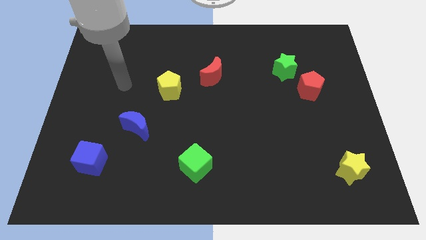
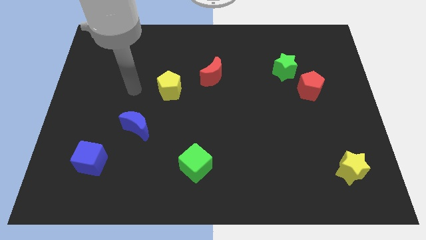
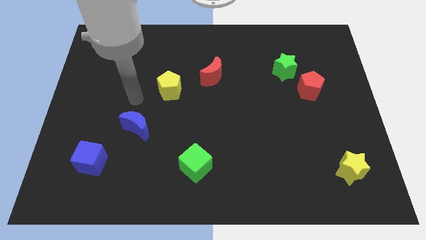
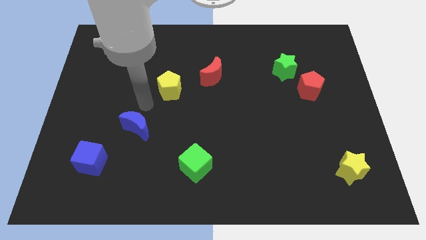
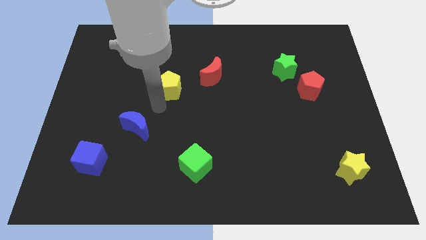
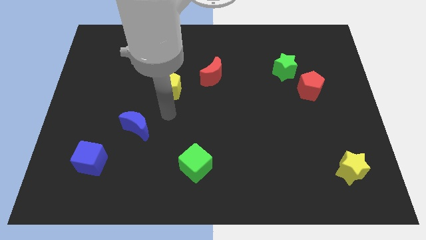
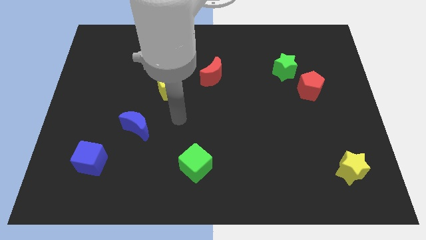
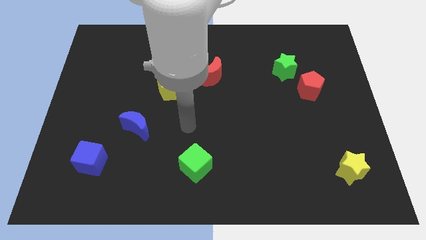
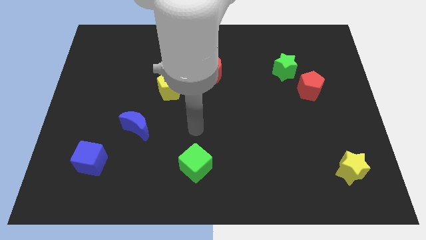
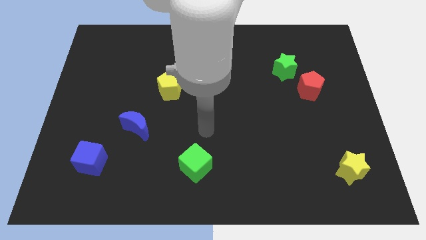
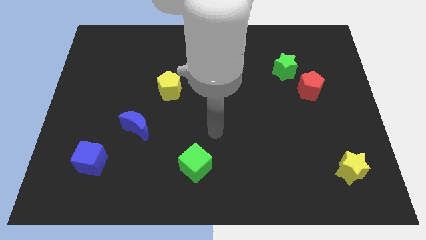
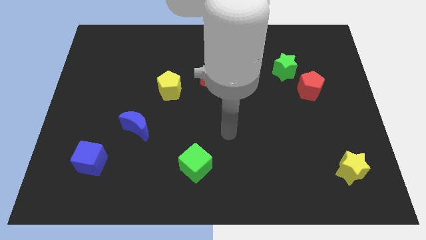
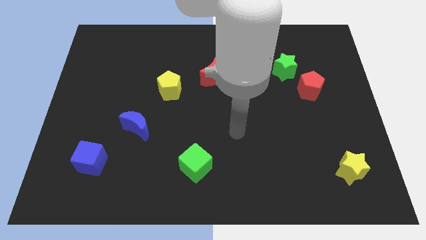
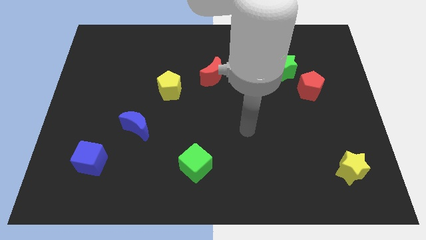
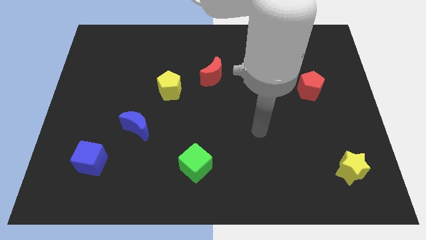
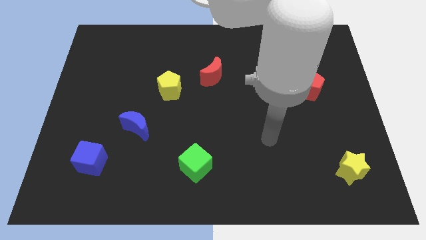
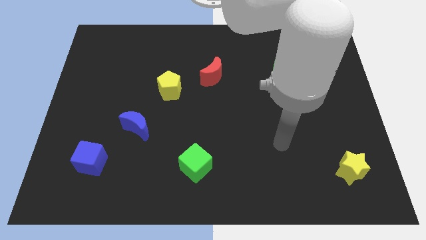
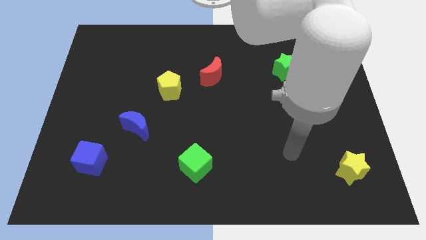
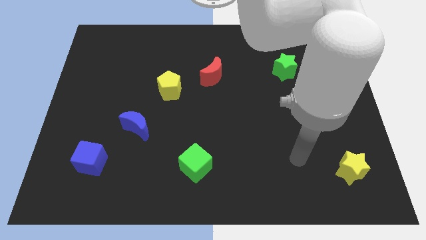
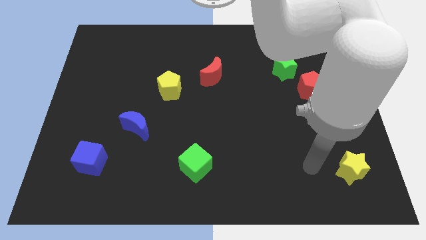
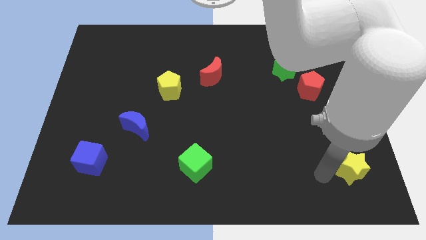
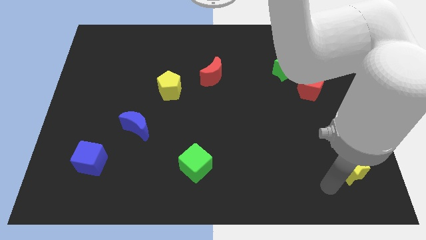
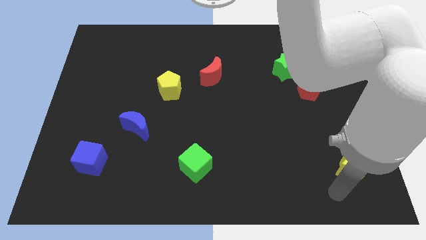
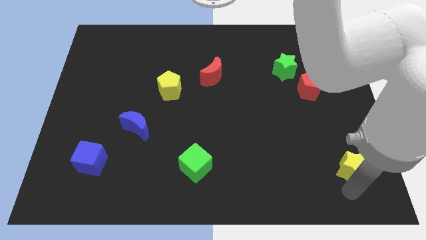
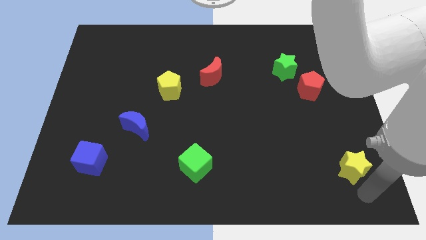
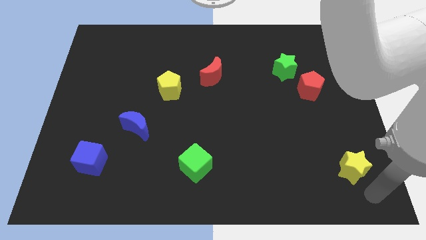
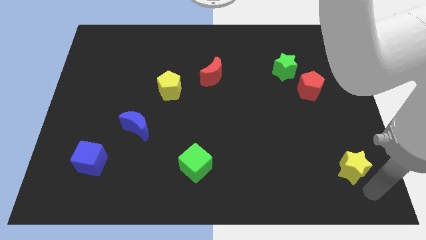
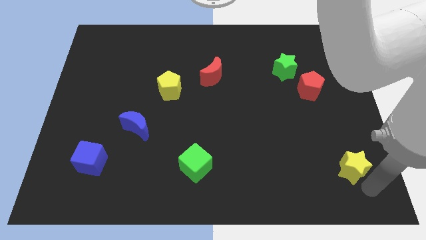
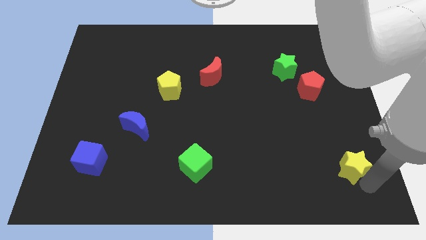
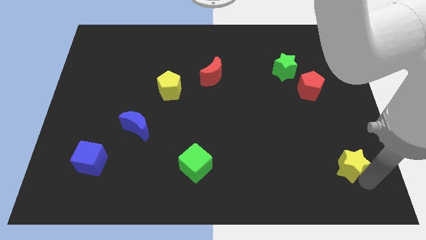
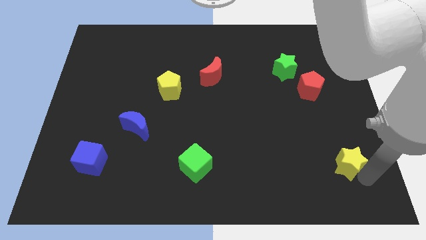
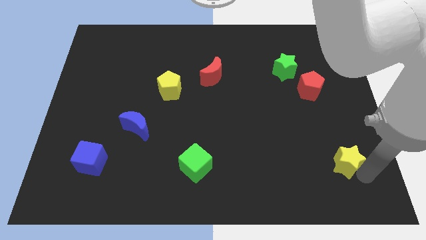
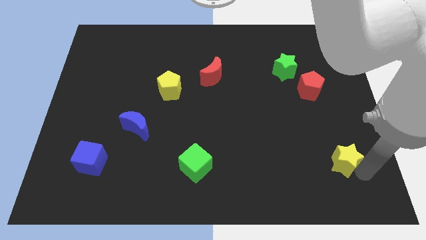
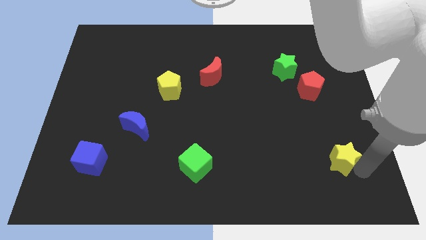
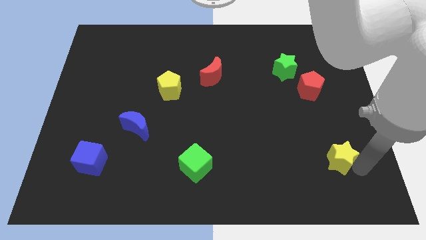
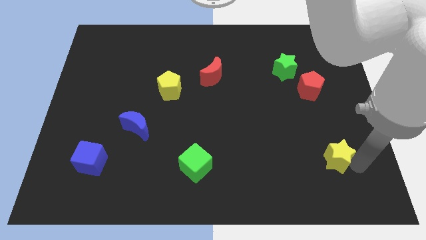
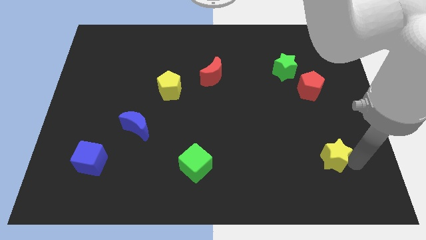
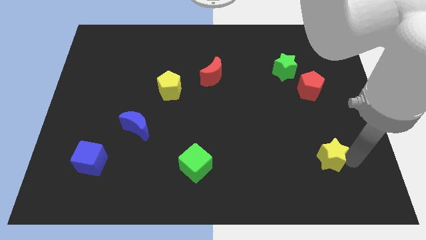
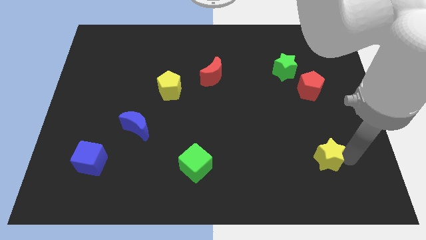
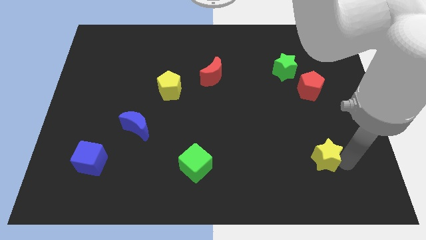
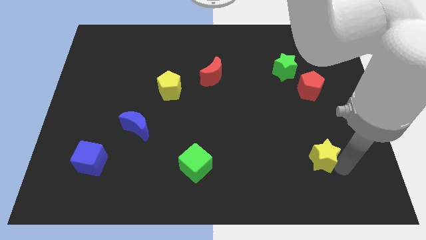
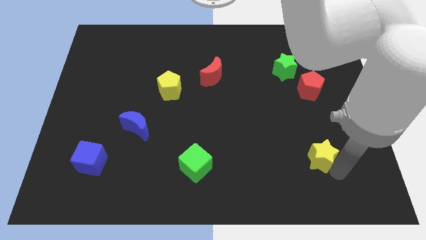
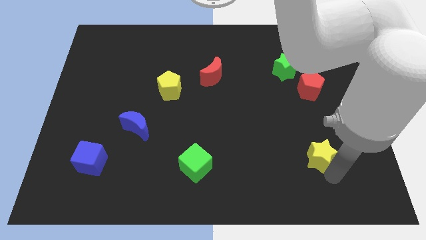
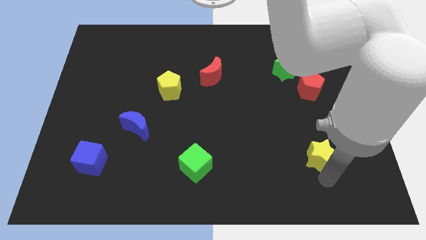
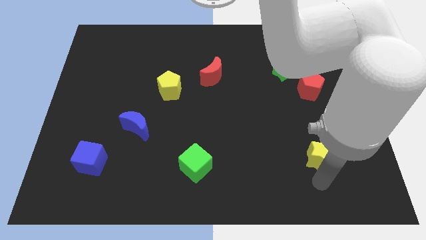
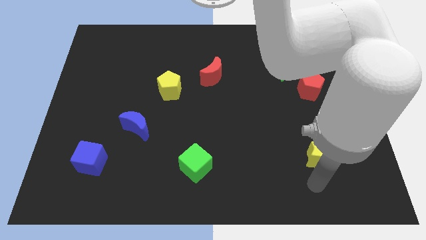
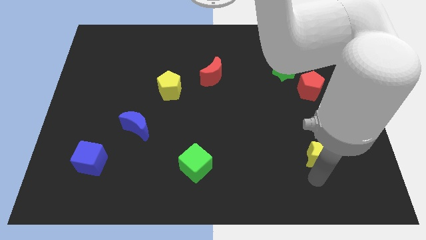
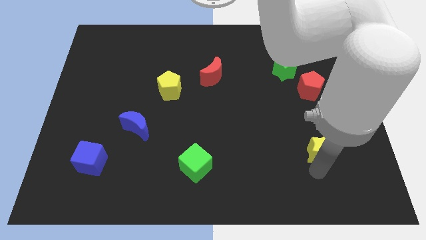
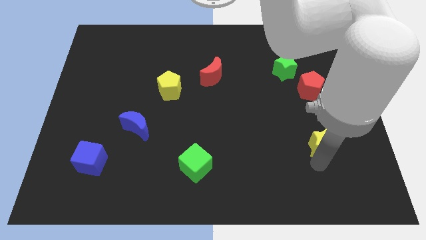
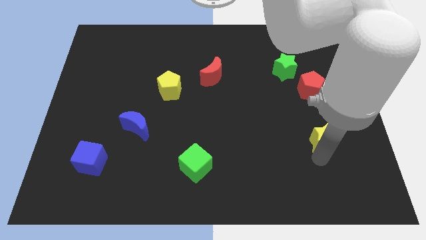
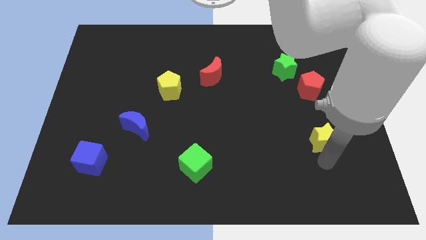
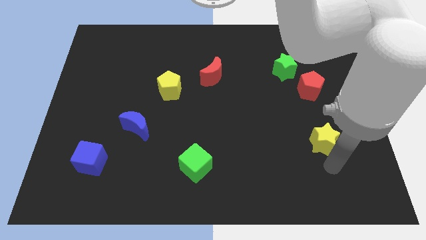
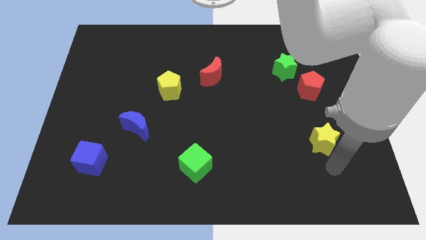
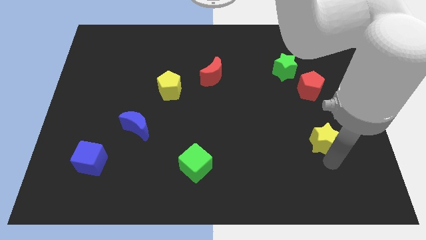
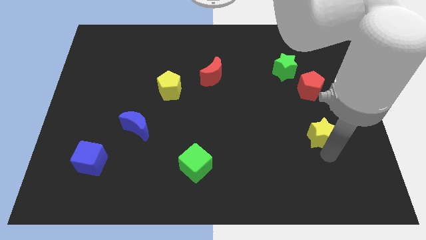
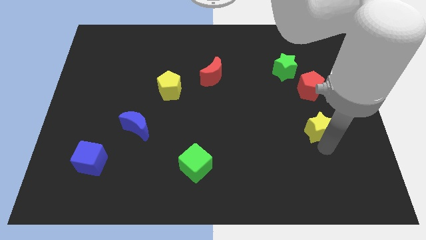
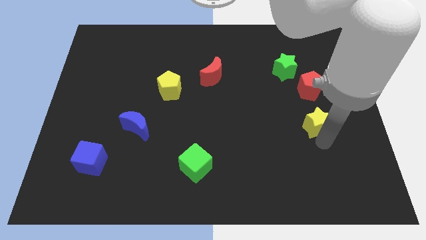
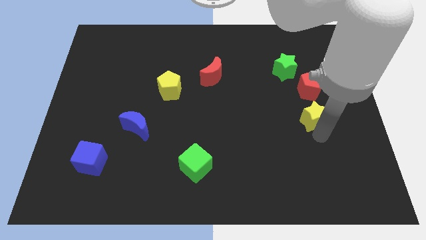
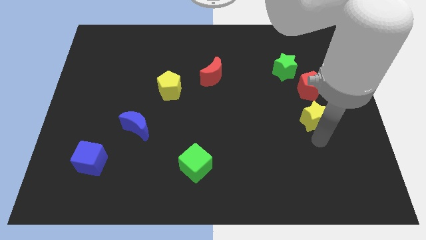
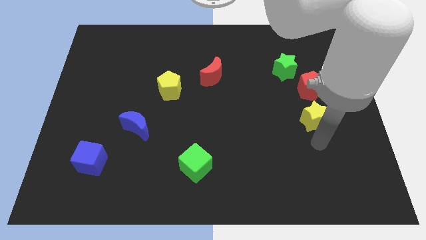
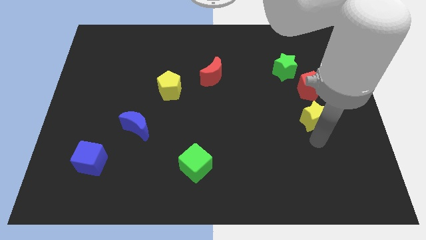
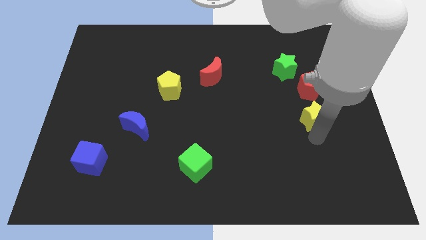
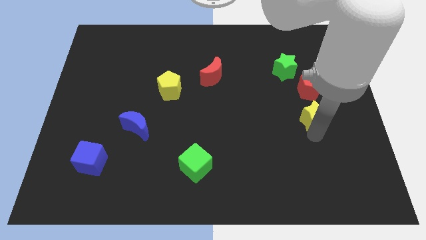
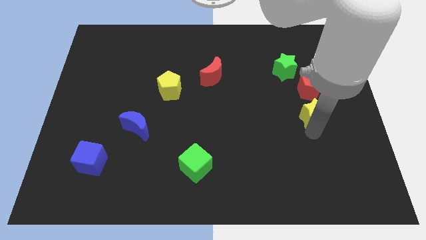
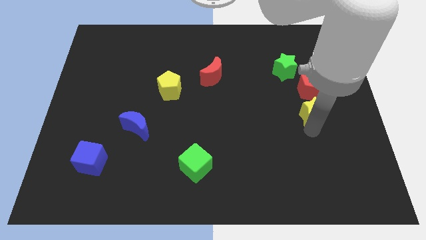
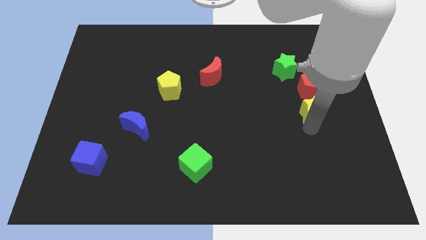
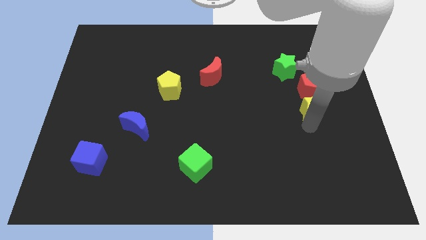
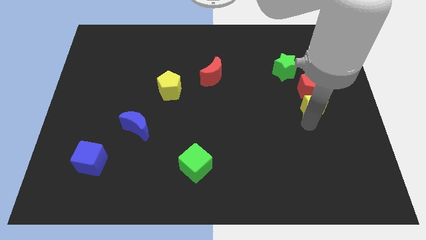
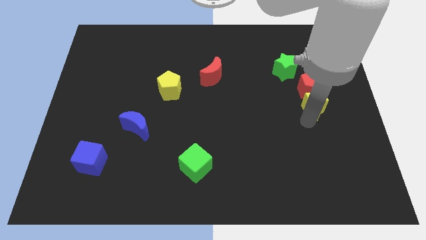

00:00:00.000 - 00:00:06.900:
move the yellow star towards the red pentagon

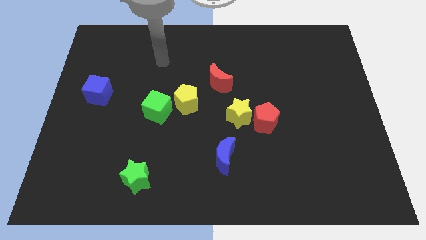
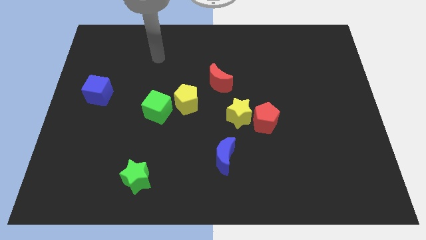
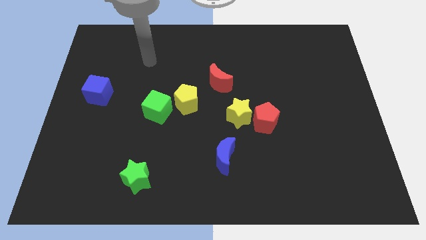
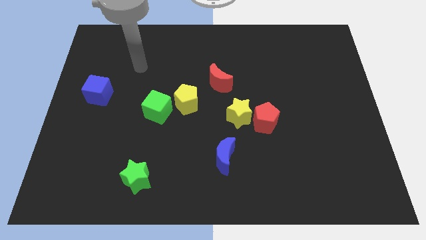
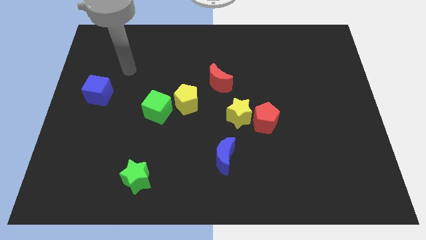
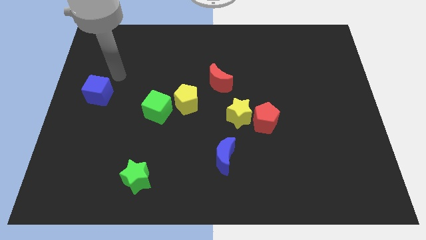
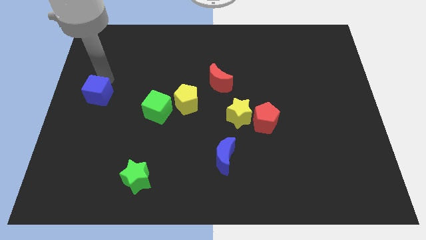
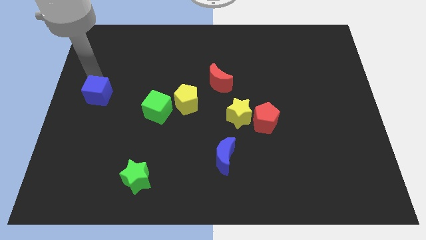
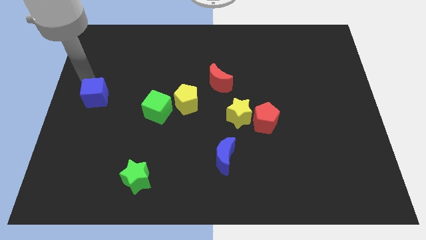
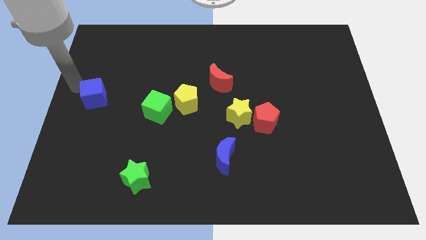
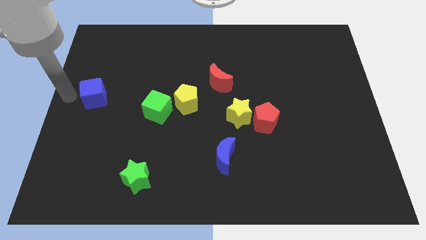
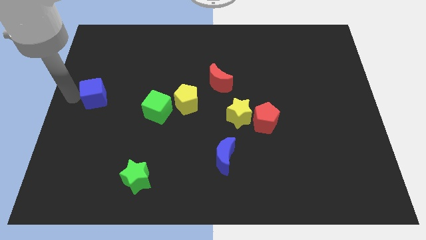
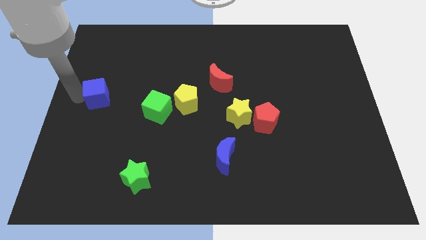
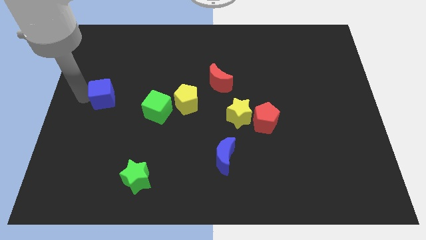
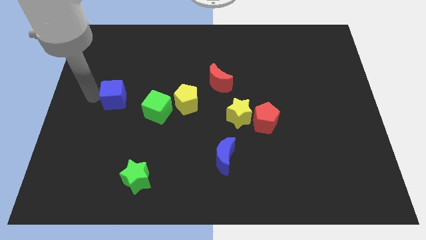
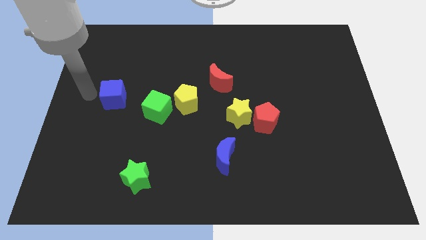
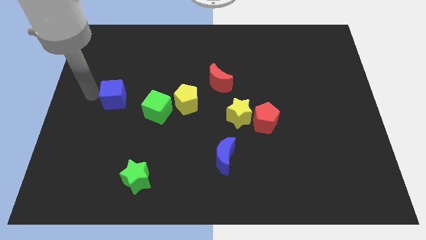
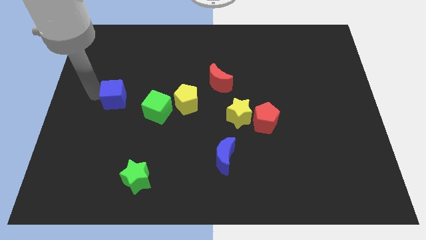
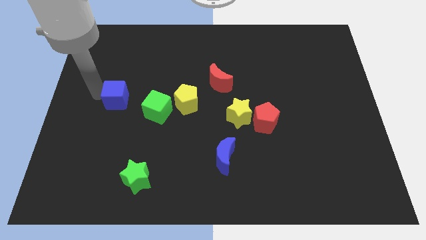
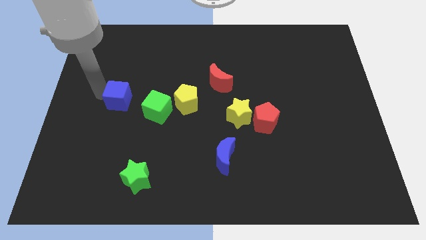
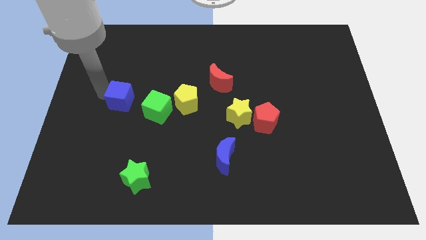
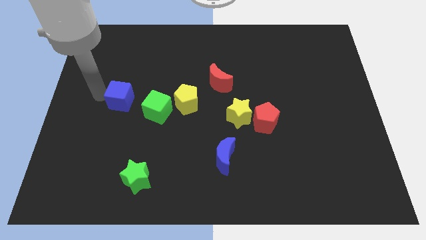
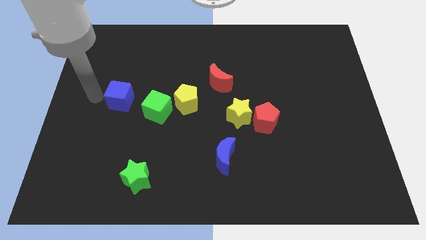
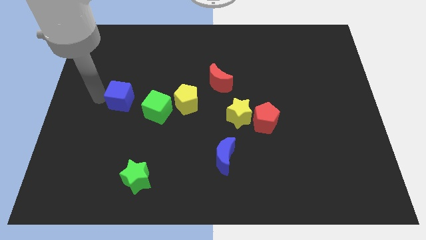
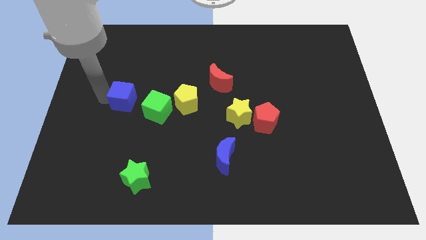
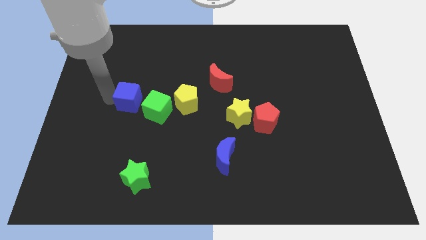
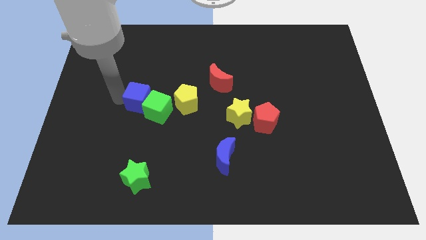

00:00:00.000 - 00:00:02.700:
push the blue cube next to the green cube
